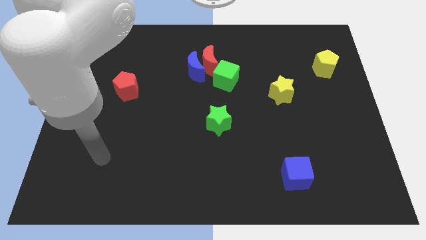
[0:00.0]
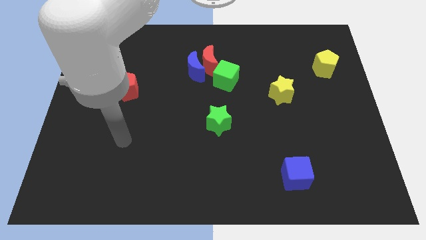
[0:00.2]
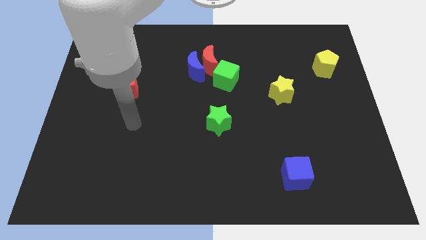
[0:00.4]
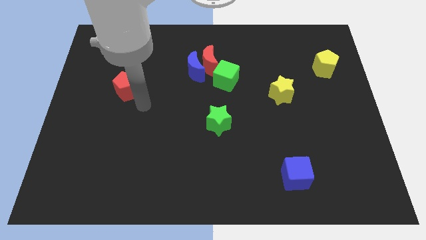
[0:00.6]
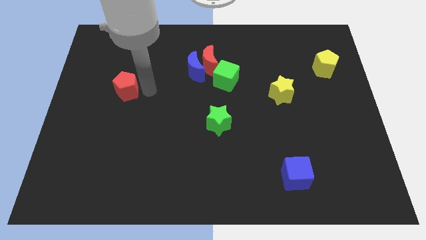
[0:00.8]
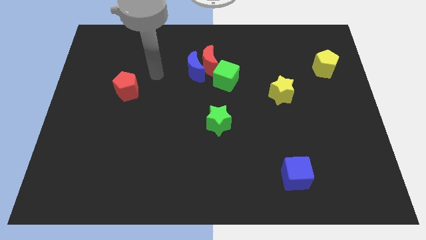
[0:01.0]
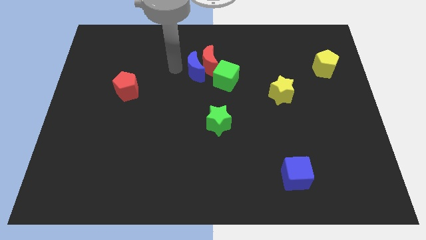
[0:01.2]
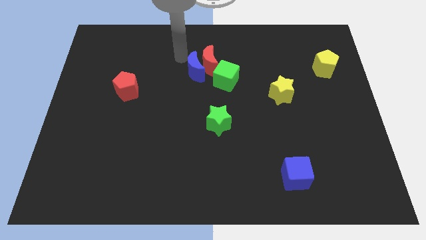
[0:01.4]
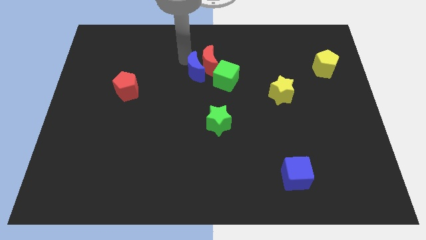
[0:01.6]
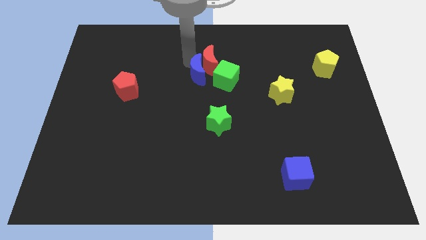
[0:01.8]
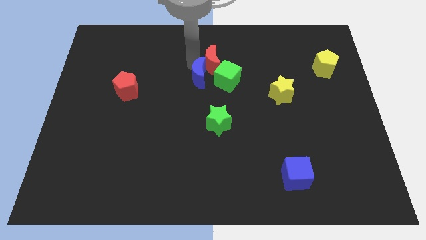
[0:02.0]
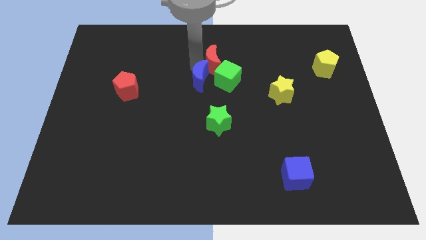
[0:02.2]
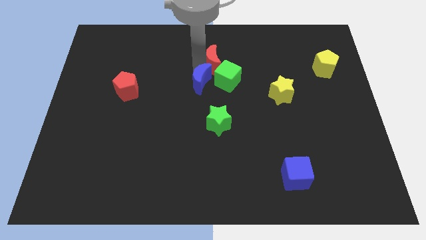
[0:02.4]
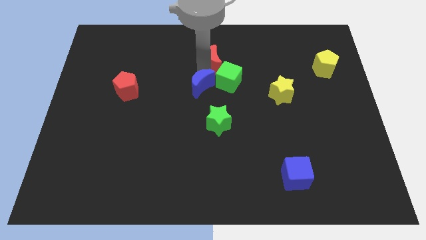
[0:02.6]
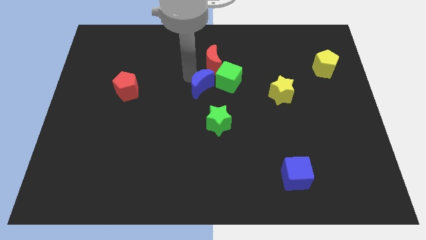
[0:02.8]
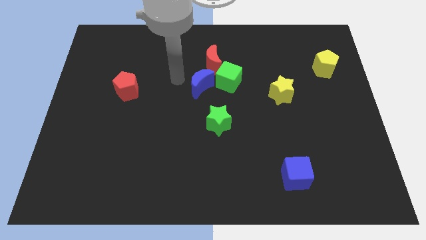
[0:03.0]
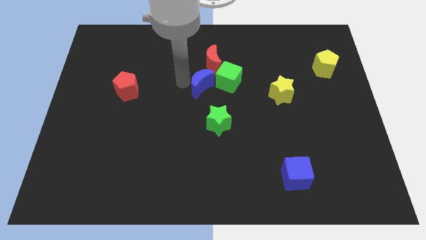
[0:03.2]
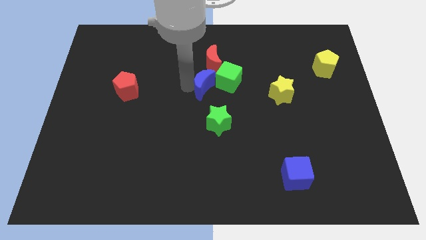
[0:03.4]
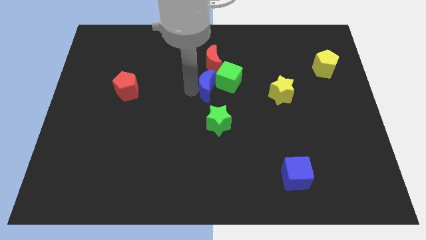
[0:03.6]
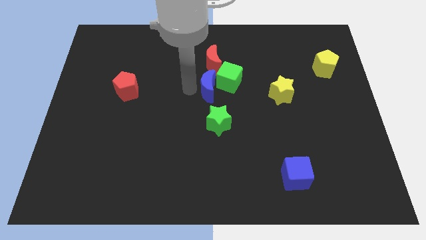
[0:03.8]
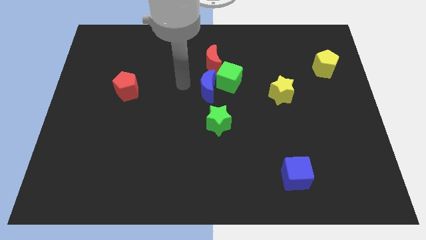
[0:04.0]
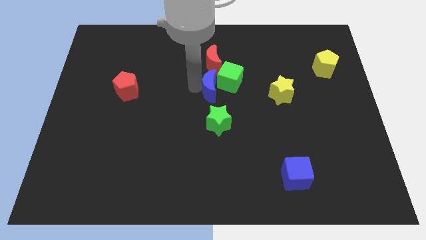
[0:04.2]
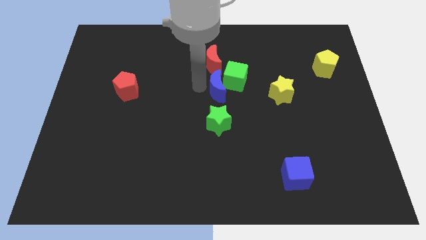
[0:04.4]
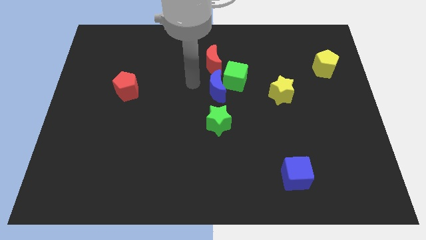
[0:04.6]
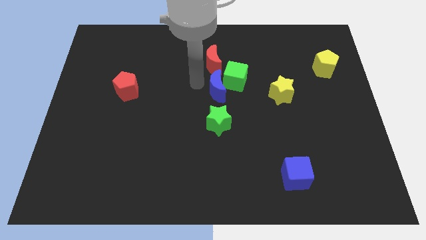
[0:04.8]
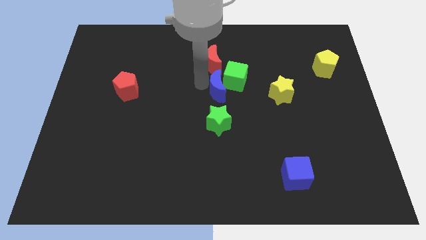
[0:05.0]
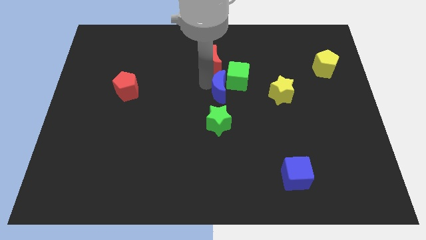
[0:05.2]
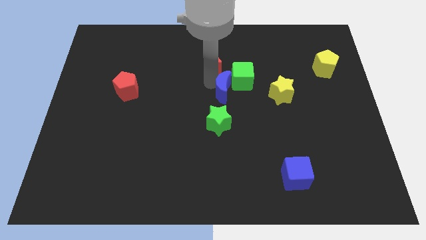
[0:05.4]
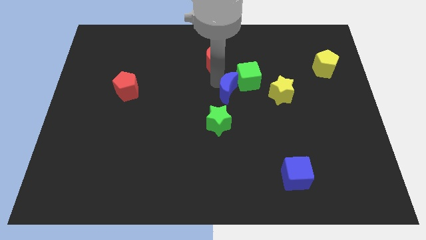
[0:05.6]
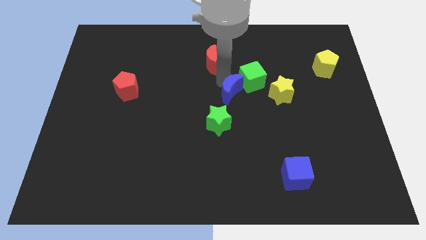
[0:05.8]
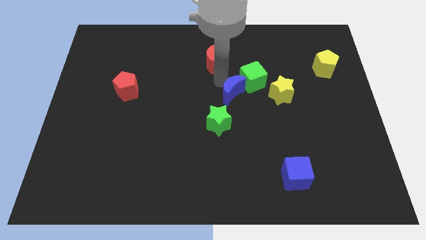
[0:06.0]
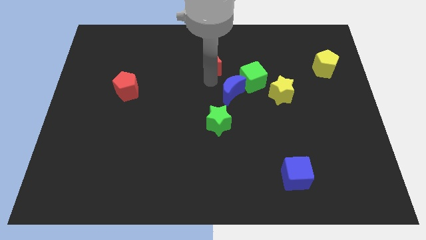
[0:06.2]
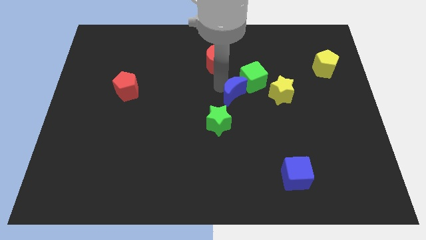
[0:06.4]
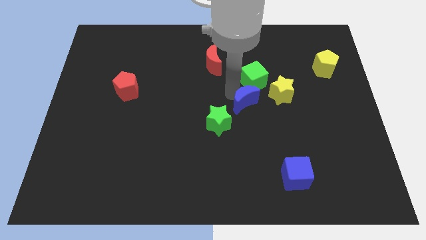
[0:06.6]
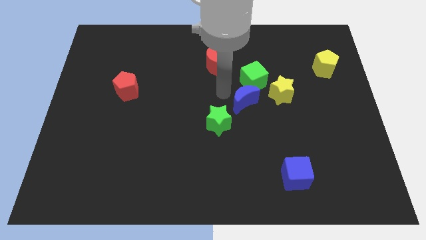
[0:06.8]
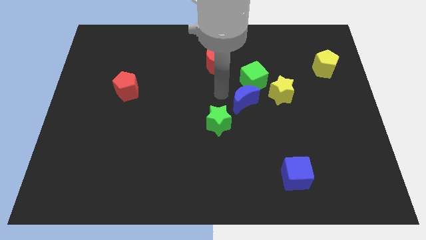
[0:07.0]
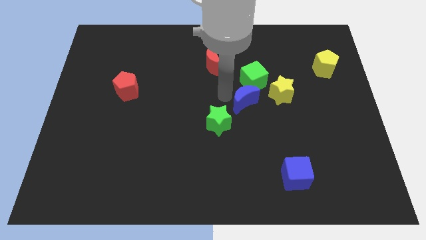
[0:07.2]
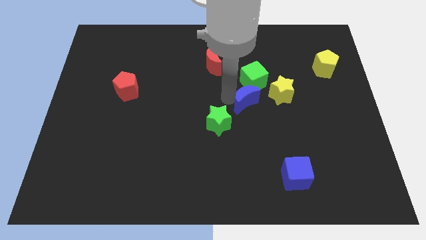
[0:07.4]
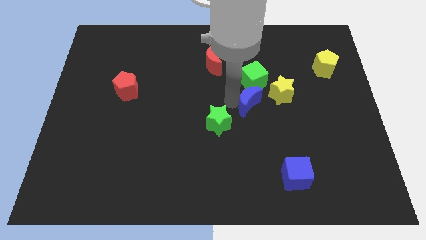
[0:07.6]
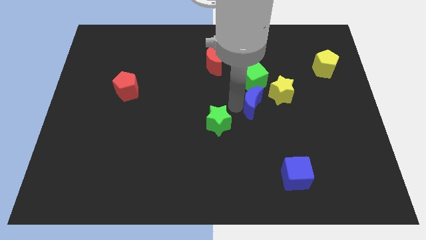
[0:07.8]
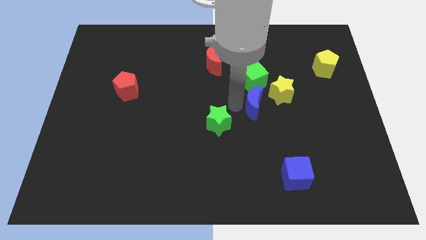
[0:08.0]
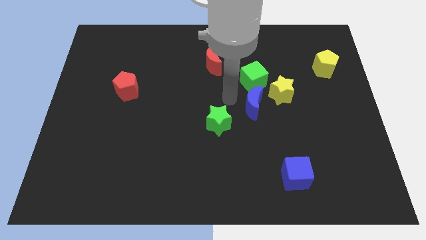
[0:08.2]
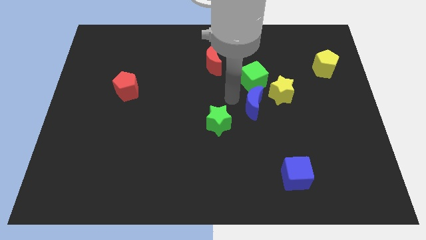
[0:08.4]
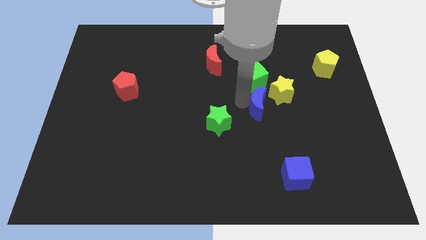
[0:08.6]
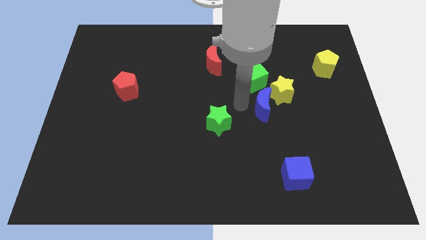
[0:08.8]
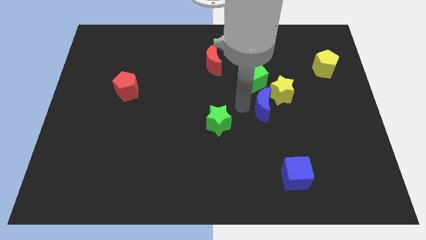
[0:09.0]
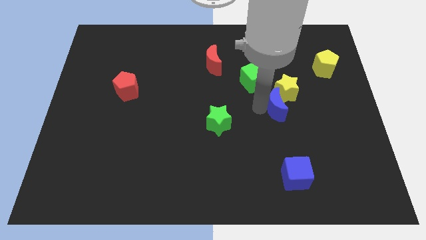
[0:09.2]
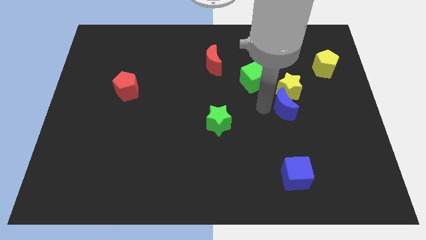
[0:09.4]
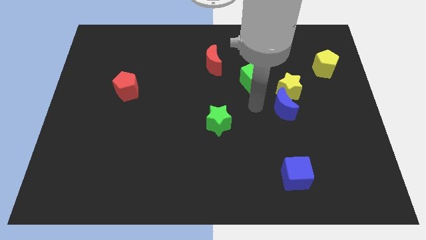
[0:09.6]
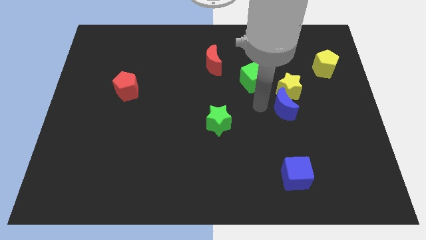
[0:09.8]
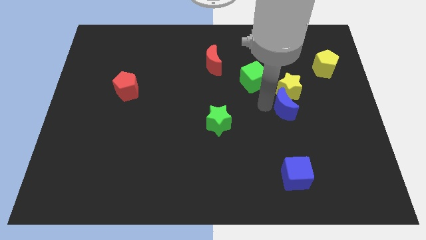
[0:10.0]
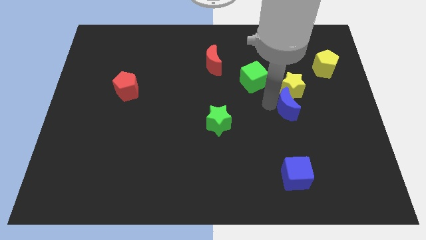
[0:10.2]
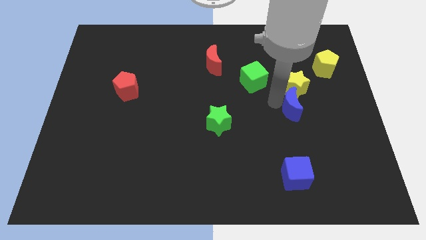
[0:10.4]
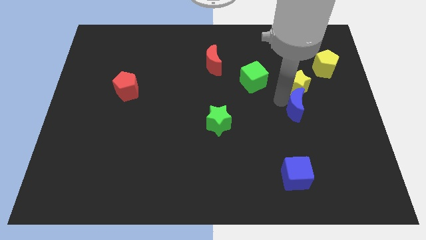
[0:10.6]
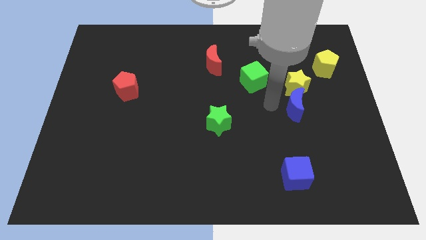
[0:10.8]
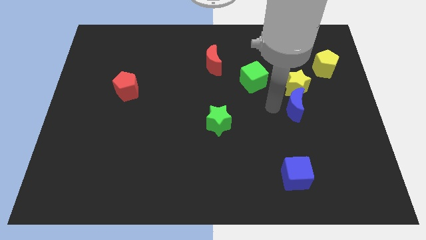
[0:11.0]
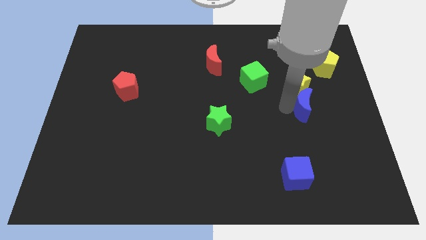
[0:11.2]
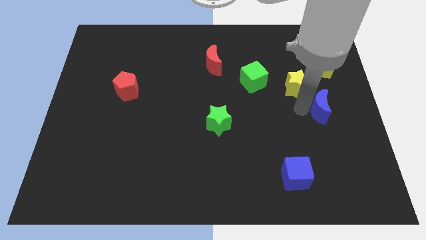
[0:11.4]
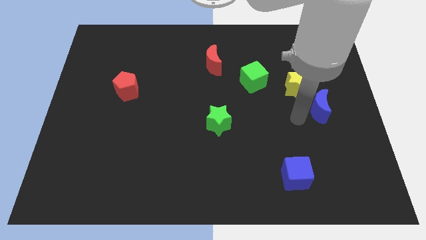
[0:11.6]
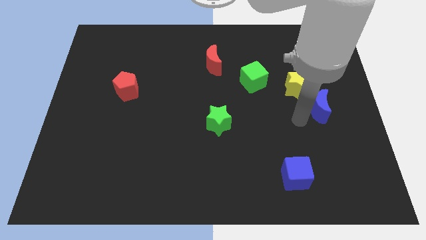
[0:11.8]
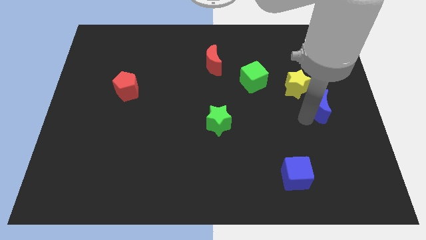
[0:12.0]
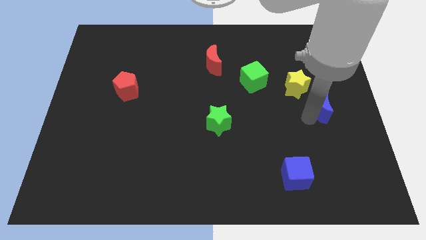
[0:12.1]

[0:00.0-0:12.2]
put the blue moon to the right side of the board

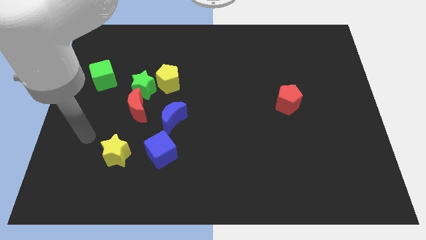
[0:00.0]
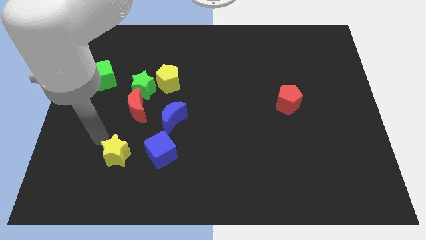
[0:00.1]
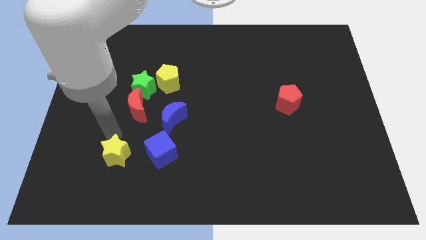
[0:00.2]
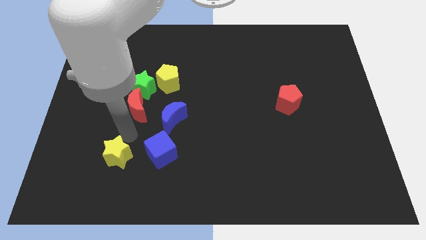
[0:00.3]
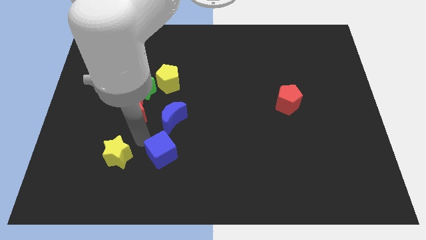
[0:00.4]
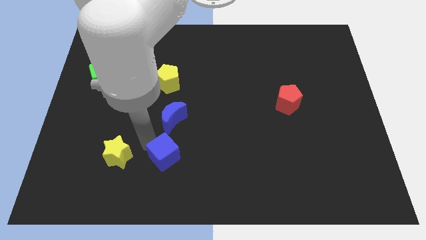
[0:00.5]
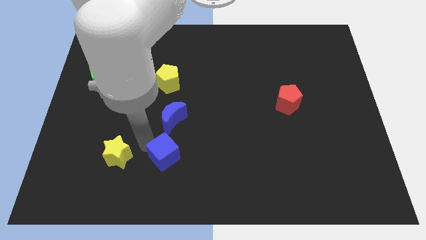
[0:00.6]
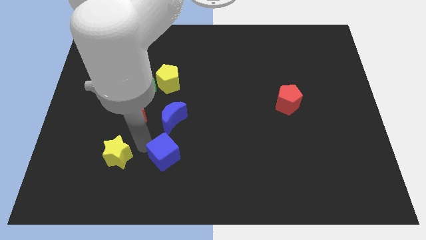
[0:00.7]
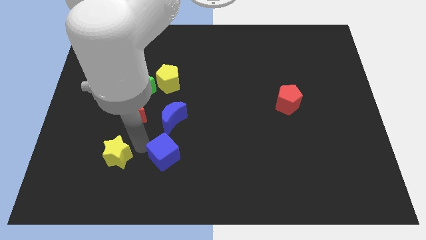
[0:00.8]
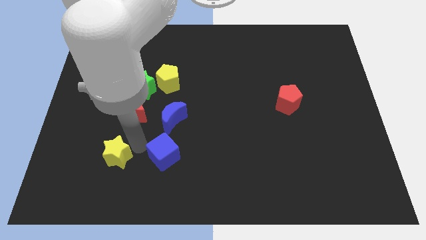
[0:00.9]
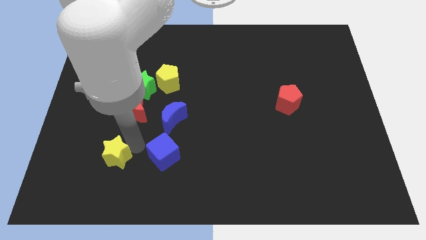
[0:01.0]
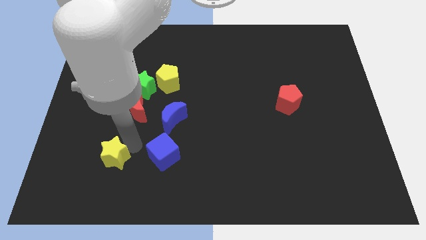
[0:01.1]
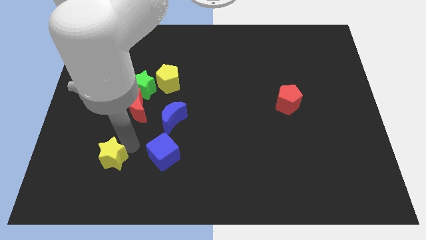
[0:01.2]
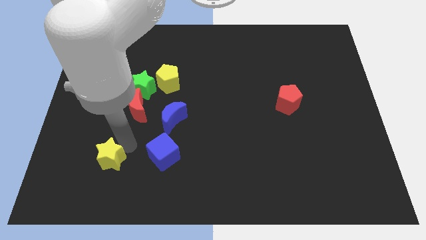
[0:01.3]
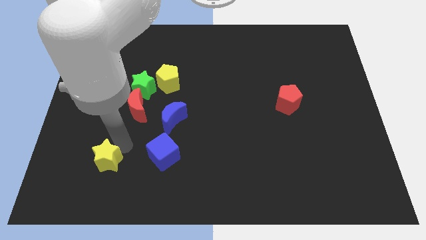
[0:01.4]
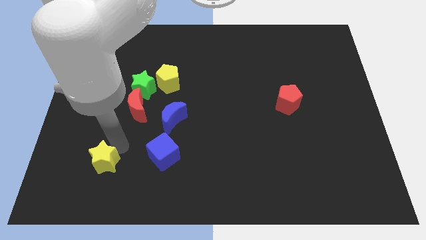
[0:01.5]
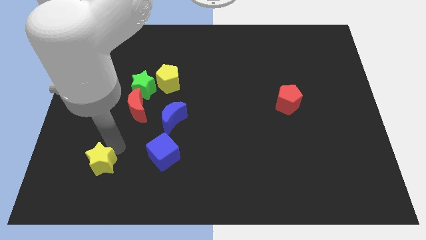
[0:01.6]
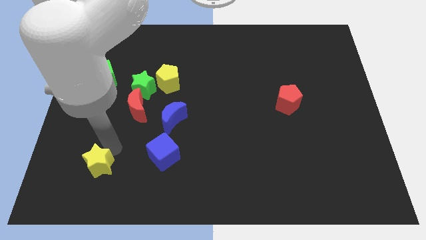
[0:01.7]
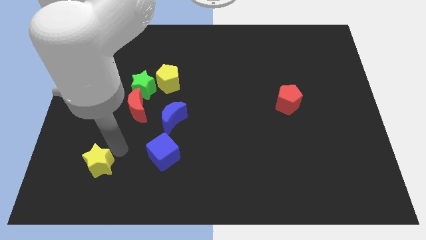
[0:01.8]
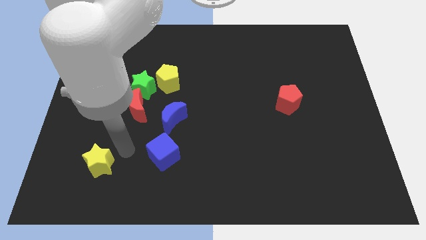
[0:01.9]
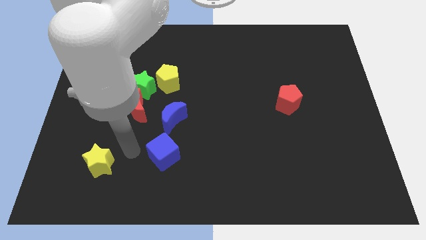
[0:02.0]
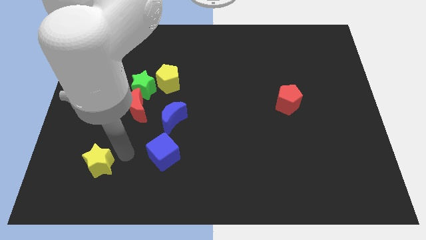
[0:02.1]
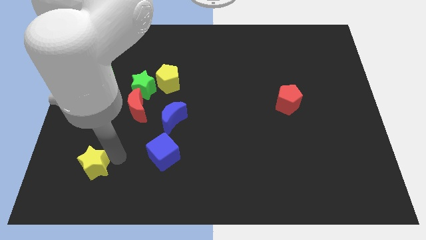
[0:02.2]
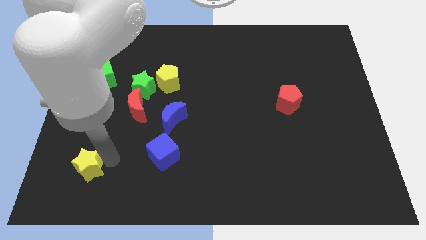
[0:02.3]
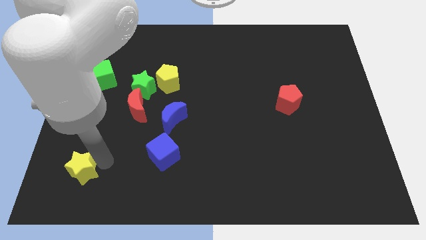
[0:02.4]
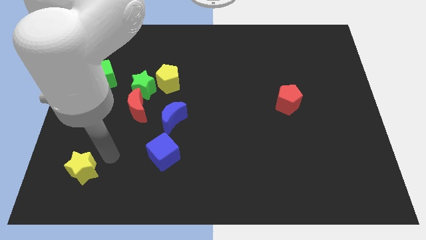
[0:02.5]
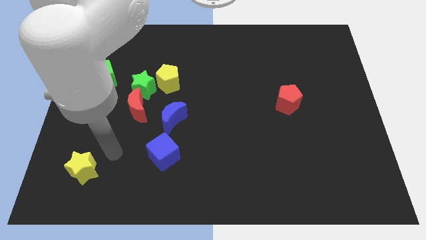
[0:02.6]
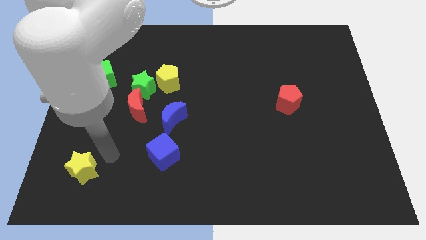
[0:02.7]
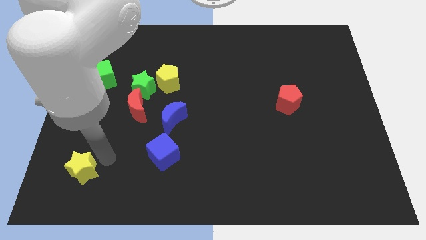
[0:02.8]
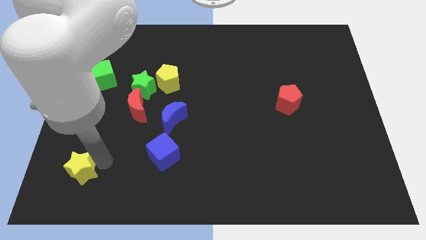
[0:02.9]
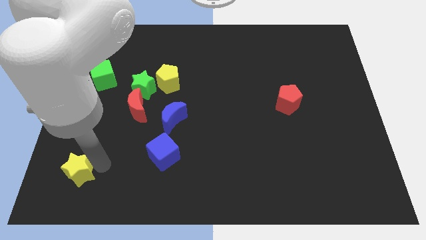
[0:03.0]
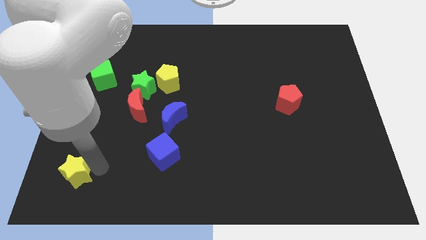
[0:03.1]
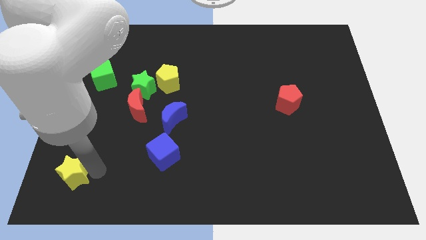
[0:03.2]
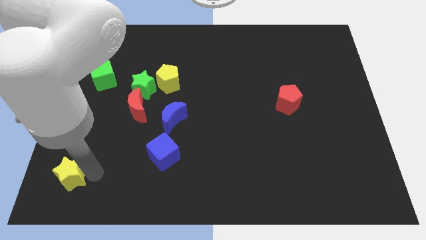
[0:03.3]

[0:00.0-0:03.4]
put the yellow star to the lower left corner
